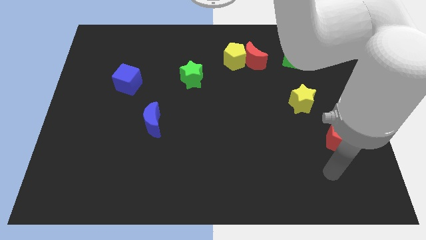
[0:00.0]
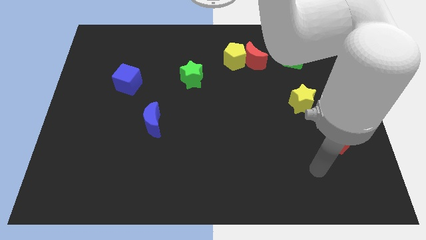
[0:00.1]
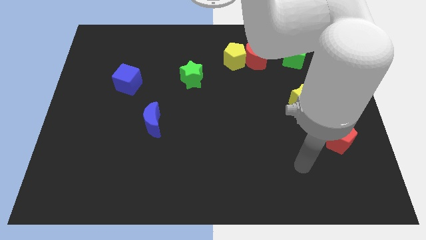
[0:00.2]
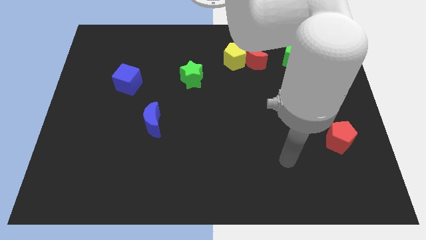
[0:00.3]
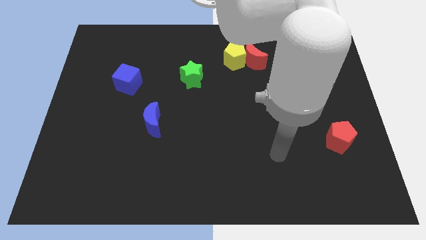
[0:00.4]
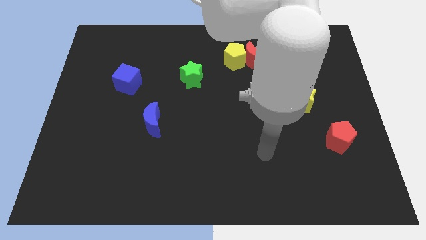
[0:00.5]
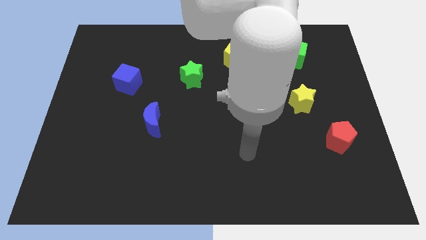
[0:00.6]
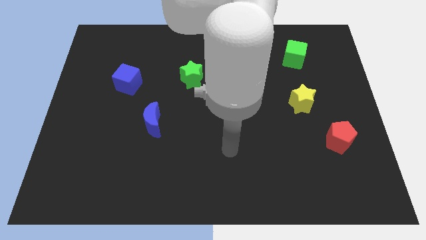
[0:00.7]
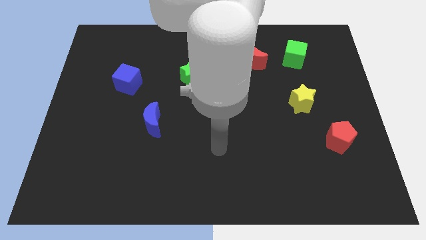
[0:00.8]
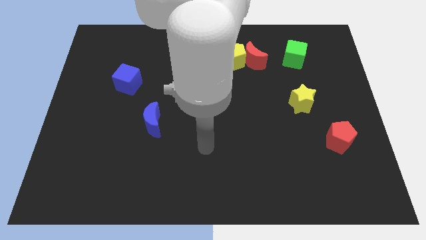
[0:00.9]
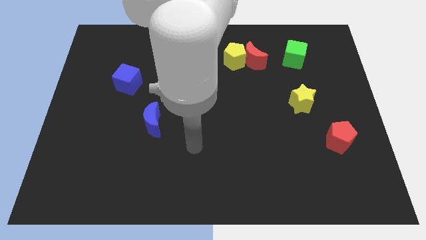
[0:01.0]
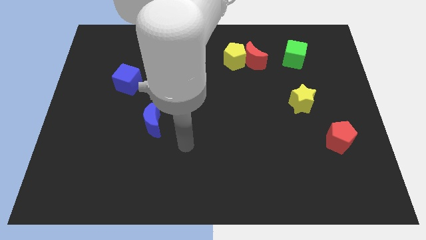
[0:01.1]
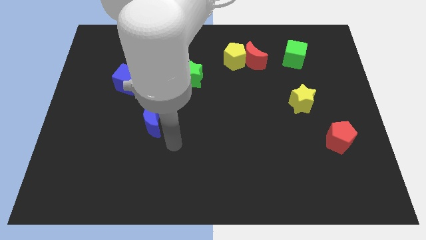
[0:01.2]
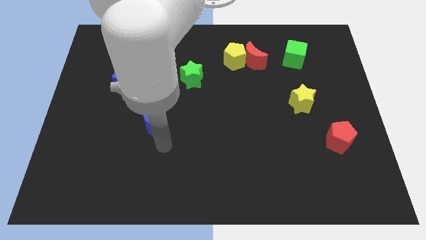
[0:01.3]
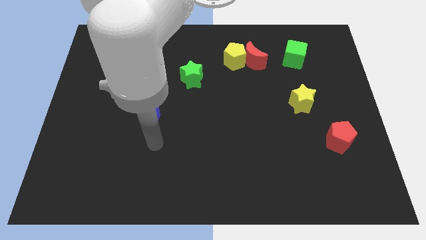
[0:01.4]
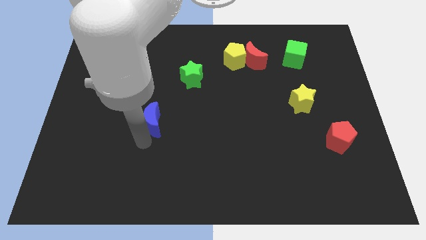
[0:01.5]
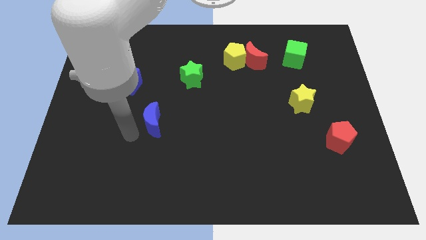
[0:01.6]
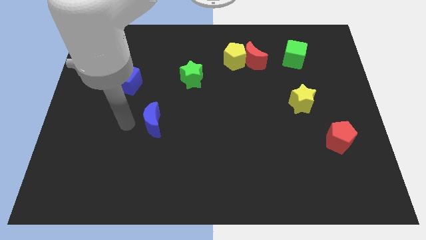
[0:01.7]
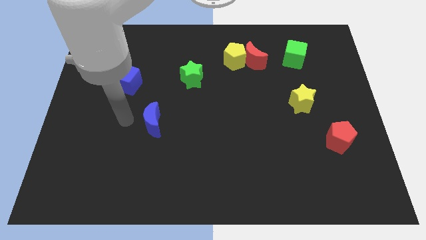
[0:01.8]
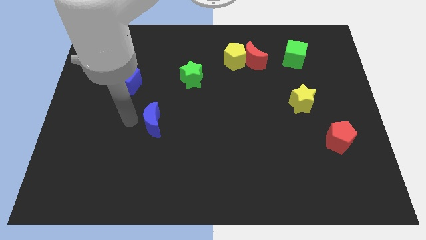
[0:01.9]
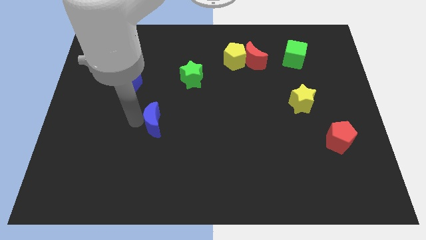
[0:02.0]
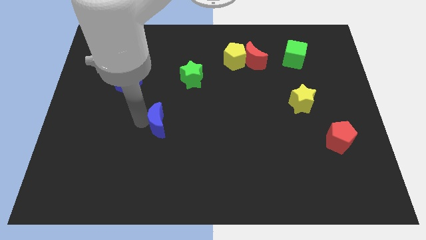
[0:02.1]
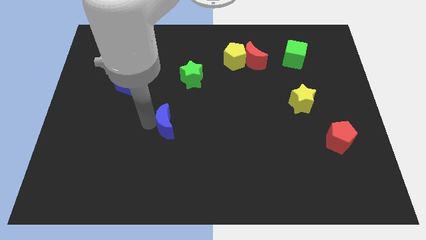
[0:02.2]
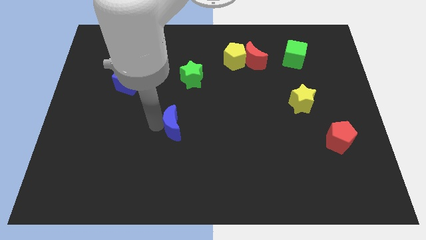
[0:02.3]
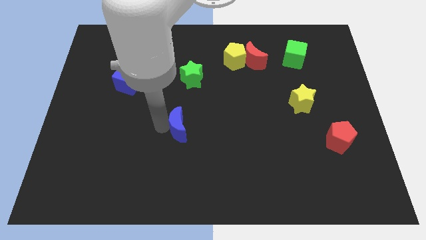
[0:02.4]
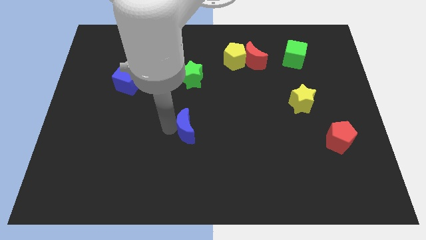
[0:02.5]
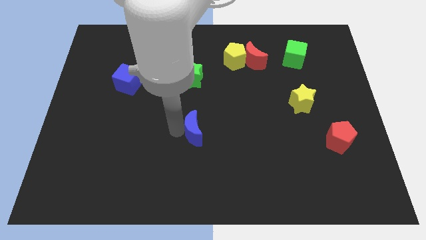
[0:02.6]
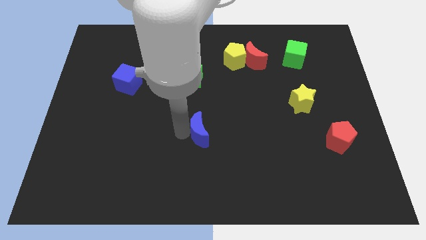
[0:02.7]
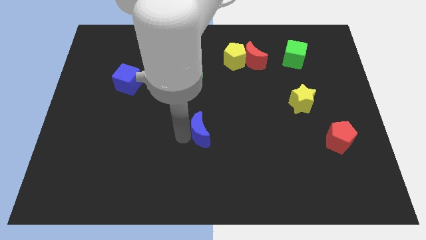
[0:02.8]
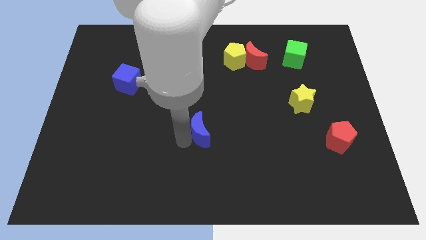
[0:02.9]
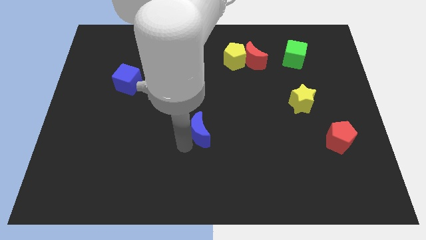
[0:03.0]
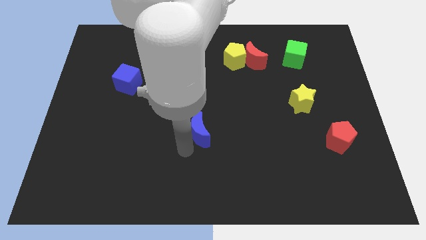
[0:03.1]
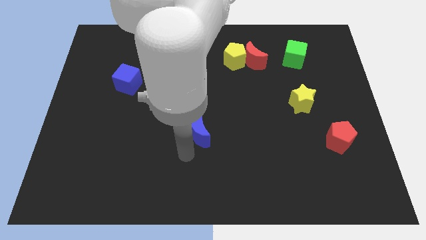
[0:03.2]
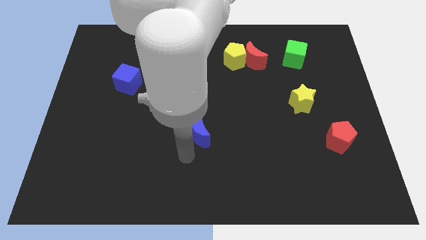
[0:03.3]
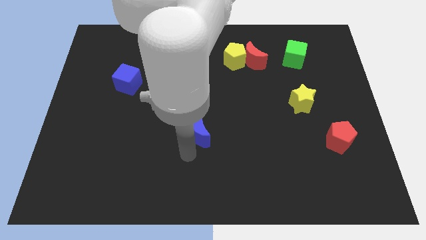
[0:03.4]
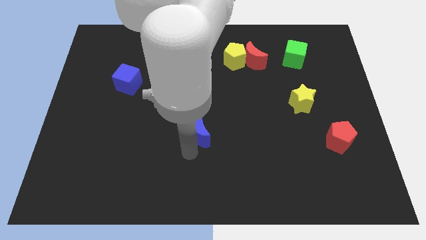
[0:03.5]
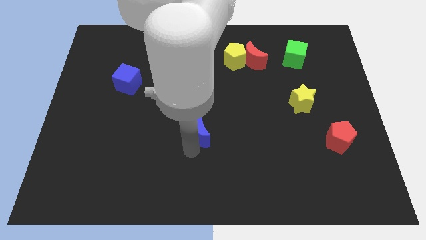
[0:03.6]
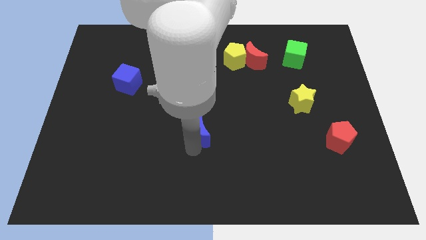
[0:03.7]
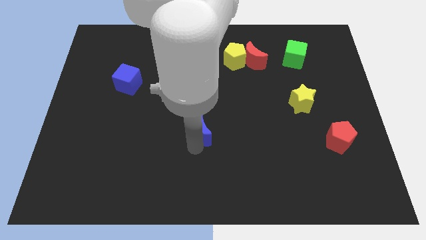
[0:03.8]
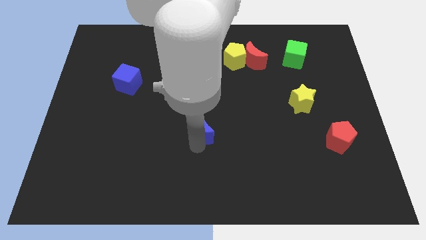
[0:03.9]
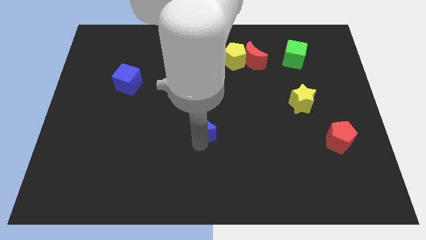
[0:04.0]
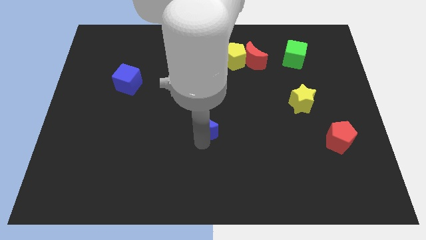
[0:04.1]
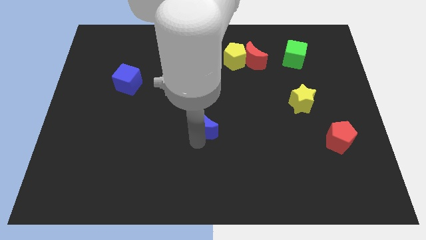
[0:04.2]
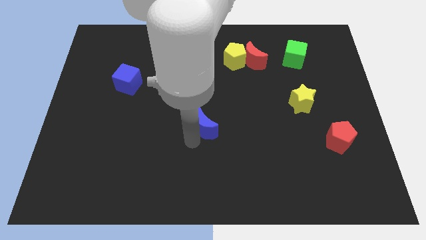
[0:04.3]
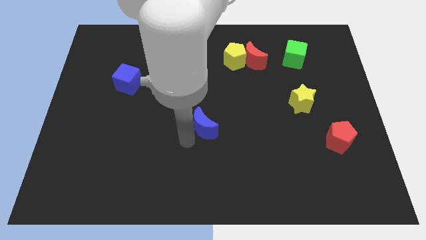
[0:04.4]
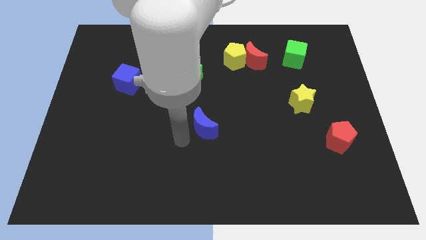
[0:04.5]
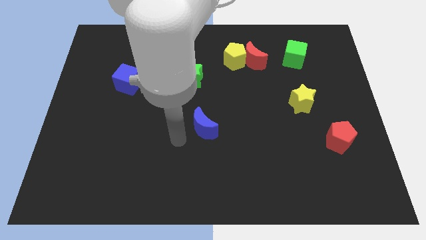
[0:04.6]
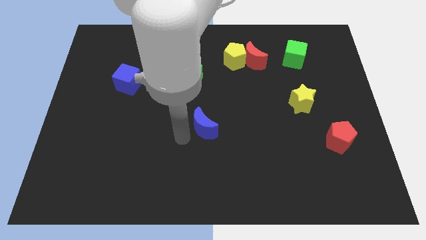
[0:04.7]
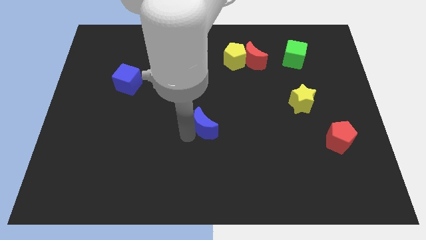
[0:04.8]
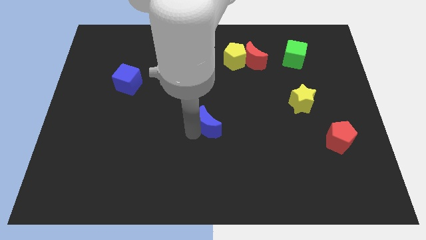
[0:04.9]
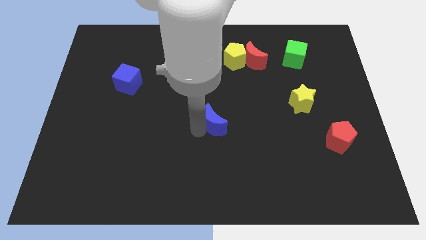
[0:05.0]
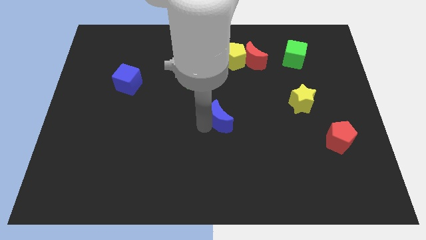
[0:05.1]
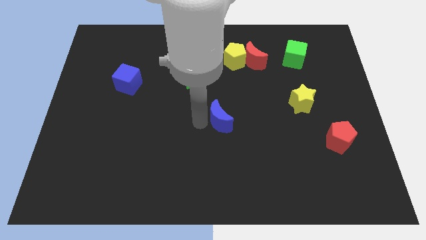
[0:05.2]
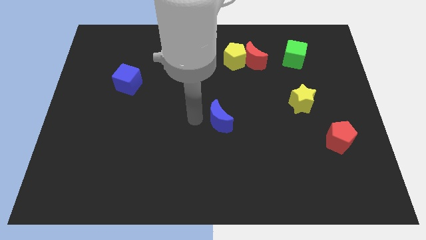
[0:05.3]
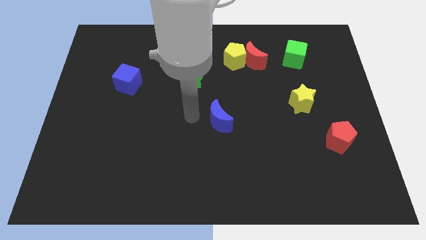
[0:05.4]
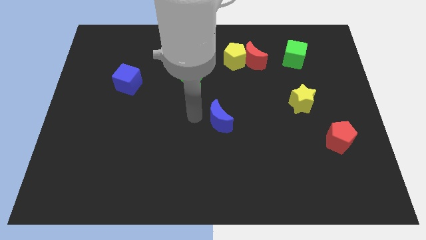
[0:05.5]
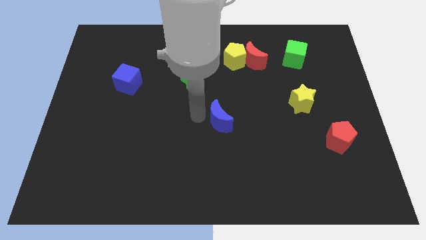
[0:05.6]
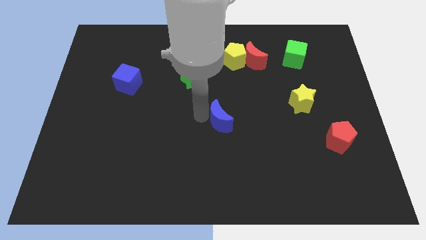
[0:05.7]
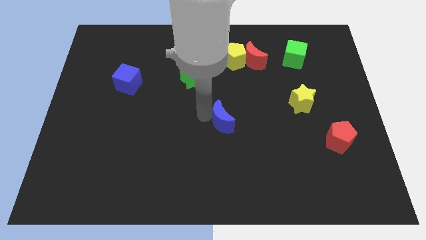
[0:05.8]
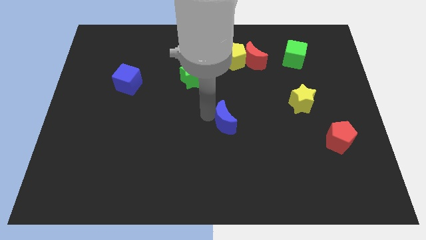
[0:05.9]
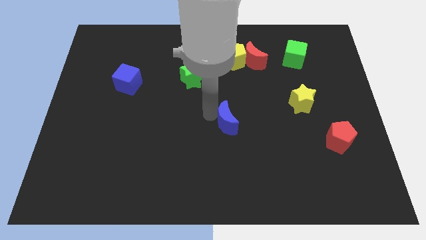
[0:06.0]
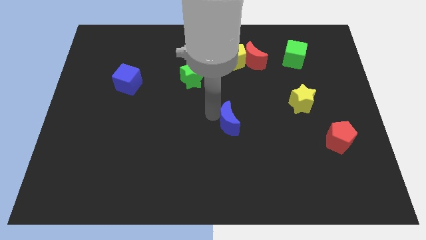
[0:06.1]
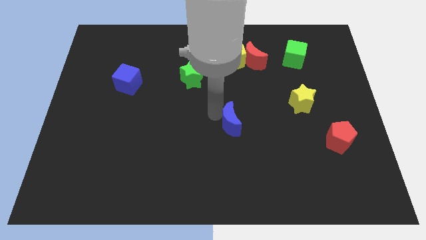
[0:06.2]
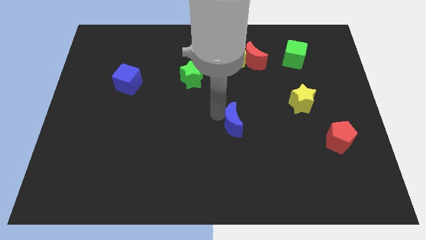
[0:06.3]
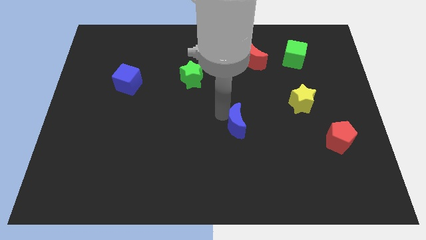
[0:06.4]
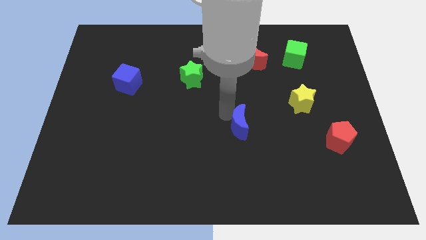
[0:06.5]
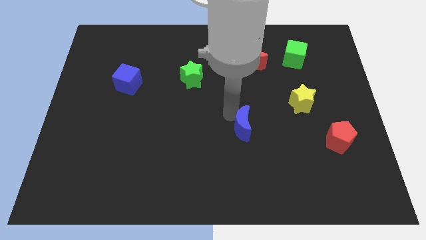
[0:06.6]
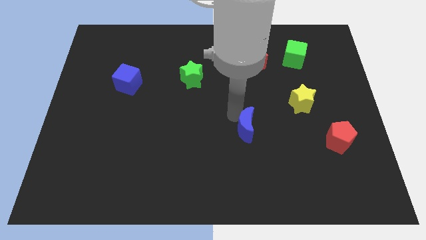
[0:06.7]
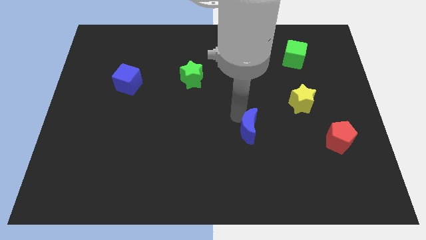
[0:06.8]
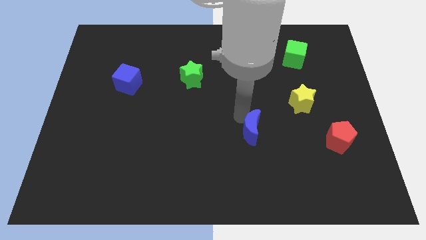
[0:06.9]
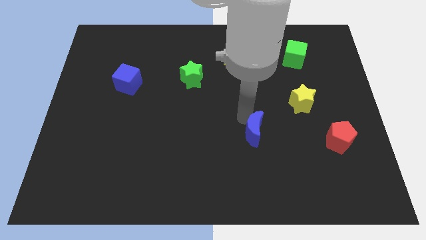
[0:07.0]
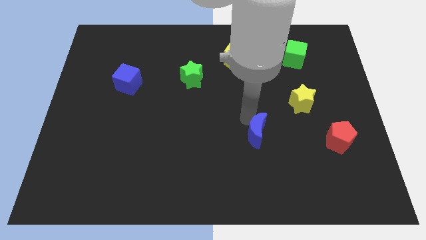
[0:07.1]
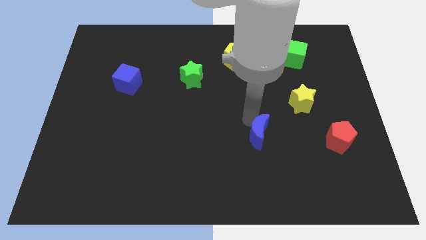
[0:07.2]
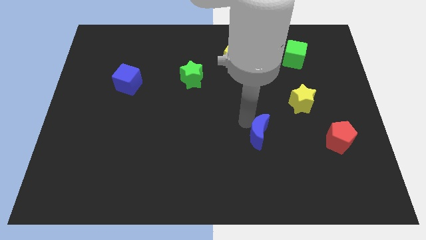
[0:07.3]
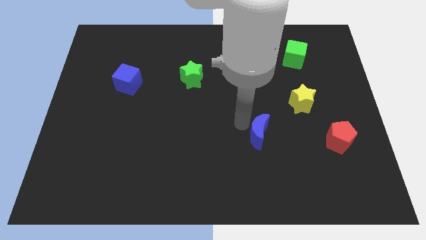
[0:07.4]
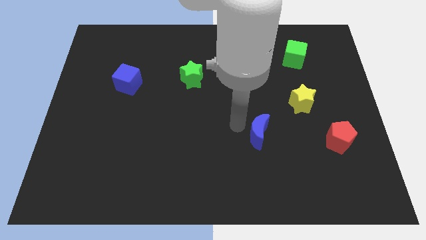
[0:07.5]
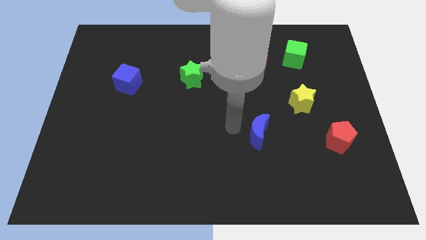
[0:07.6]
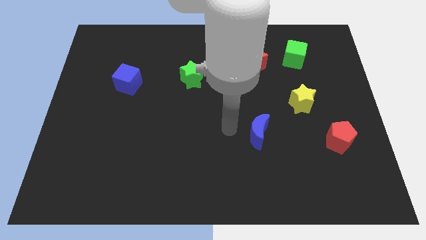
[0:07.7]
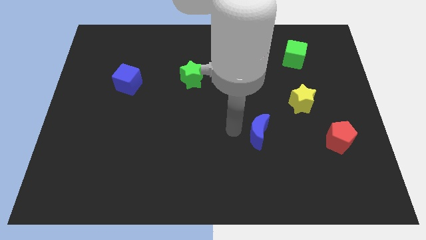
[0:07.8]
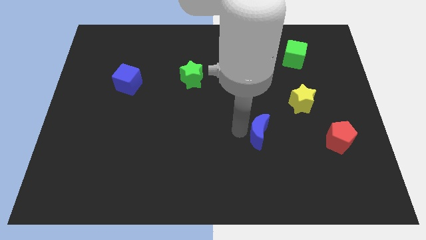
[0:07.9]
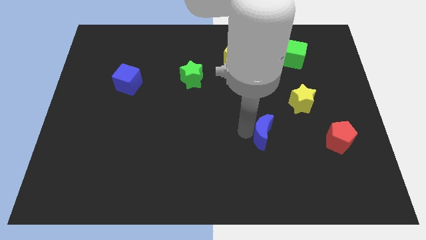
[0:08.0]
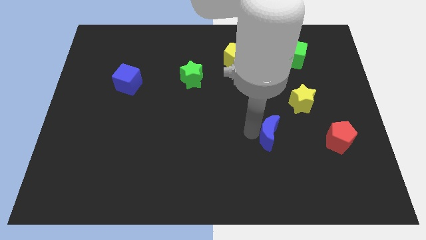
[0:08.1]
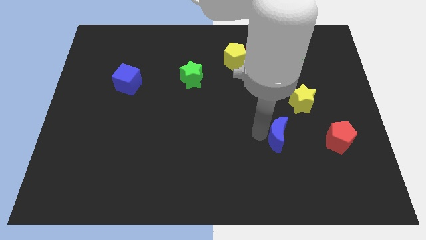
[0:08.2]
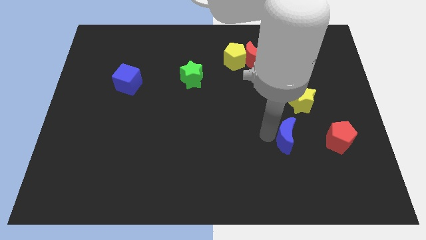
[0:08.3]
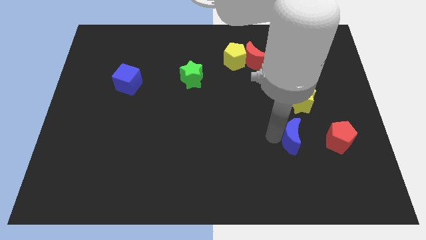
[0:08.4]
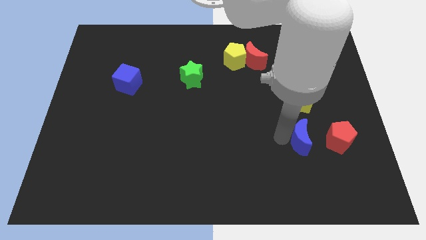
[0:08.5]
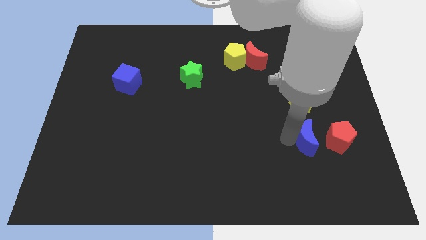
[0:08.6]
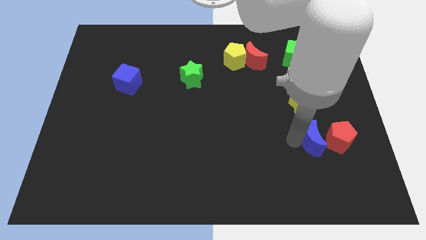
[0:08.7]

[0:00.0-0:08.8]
move the blue moon towards the red pentagon
